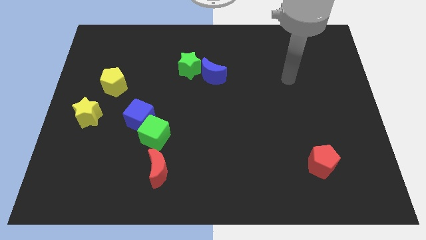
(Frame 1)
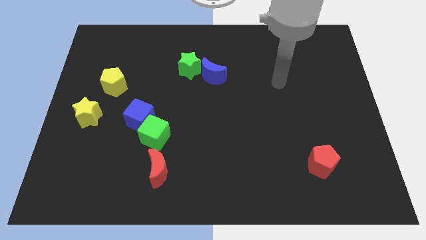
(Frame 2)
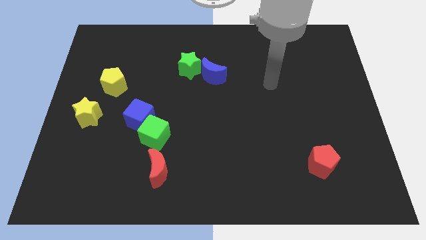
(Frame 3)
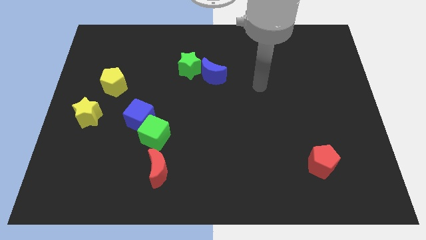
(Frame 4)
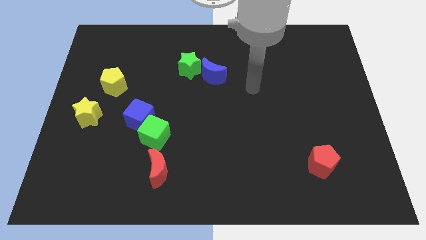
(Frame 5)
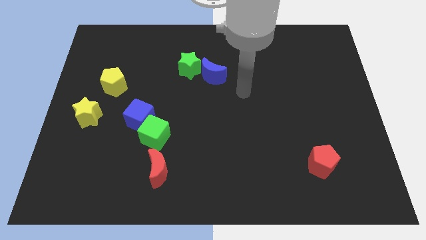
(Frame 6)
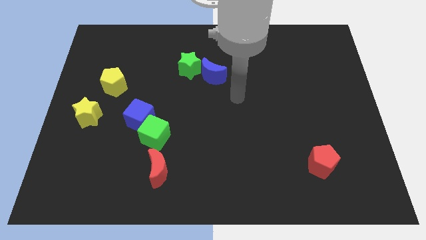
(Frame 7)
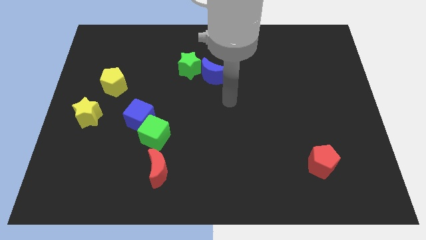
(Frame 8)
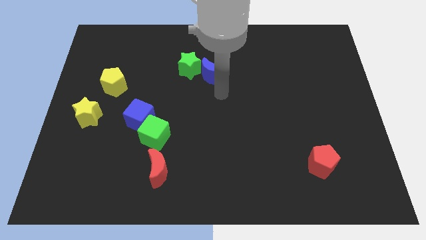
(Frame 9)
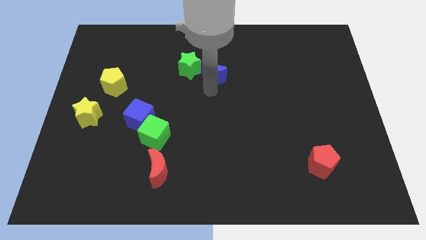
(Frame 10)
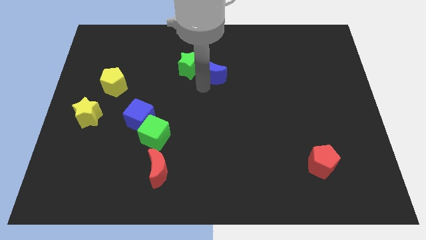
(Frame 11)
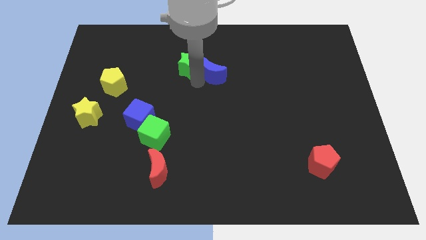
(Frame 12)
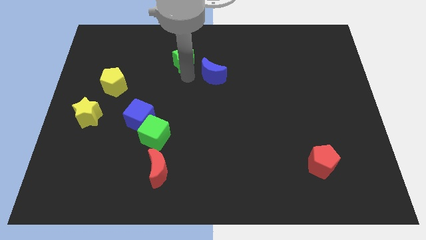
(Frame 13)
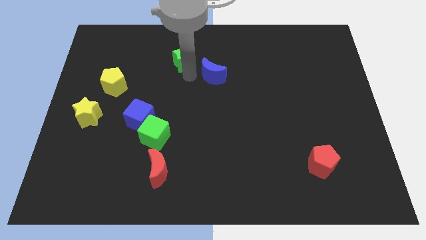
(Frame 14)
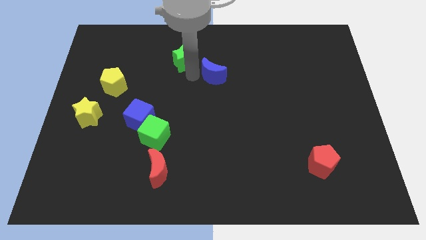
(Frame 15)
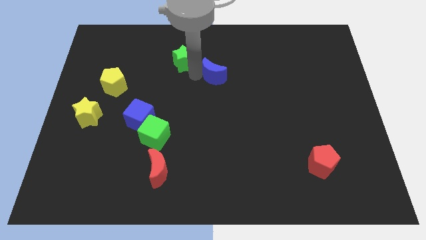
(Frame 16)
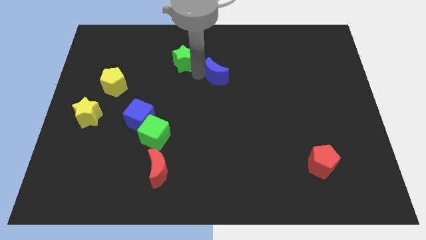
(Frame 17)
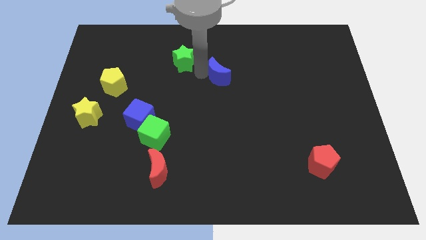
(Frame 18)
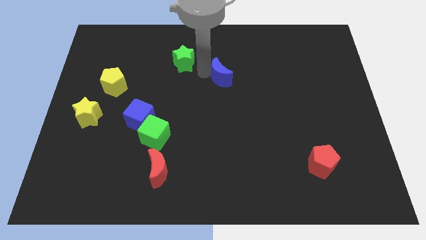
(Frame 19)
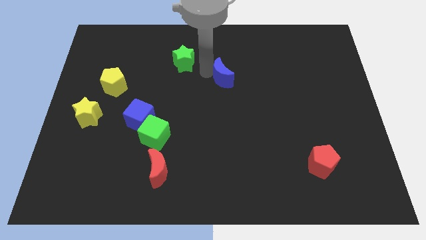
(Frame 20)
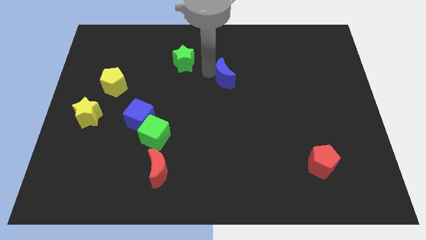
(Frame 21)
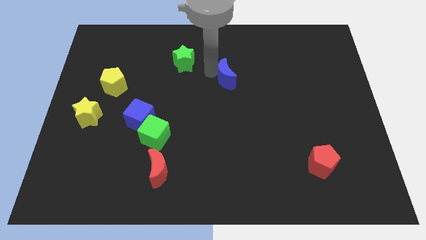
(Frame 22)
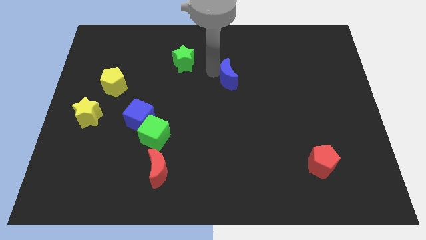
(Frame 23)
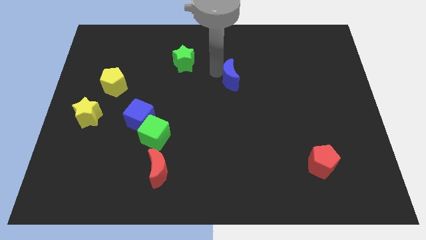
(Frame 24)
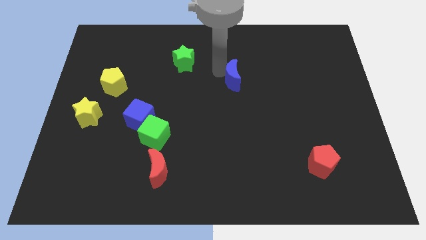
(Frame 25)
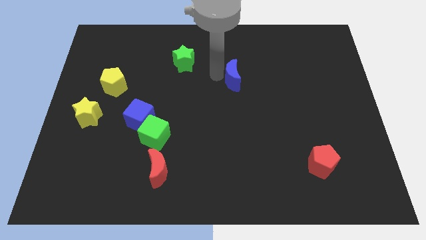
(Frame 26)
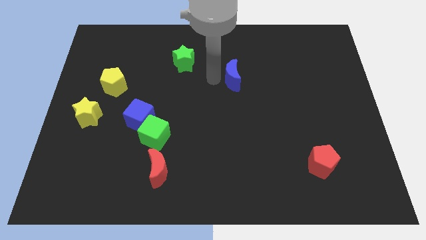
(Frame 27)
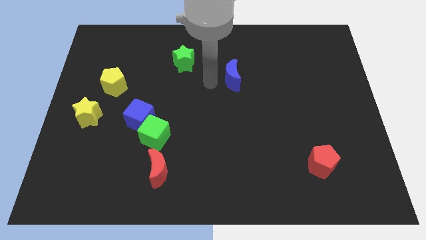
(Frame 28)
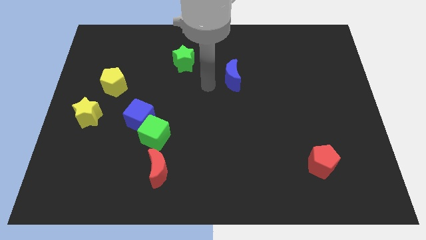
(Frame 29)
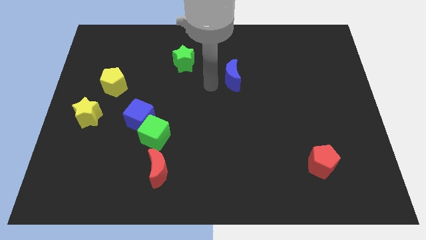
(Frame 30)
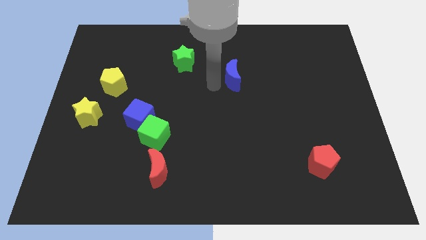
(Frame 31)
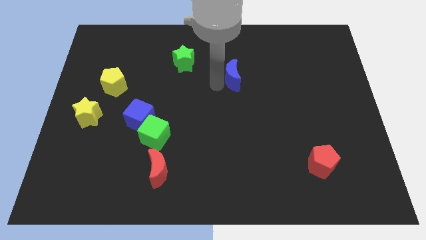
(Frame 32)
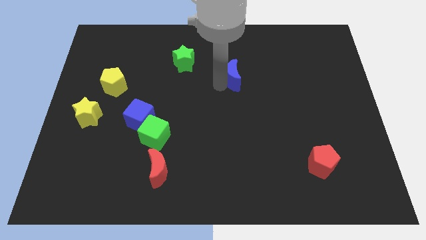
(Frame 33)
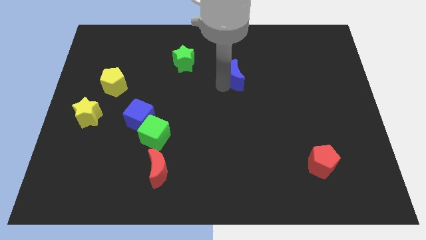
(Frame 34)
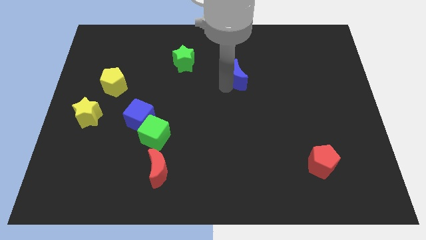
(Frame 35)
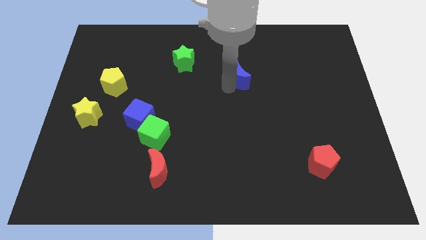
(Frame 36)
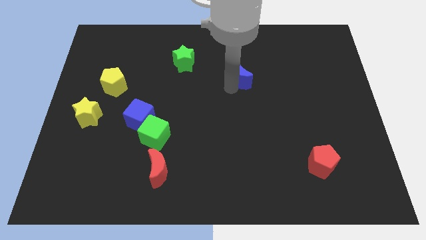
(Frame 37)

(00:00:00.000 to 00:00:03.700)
move the blue moon to the right a bit

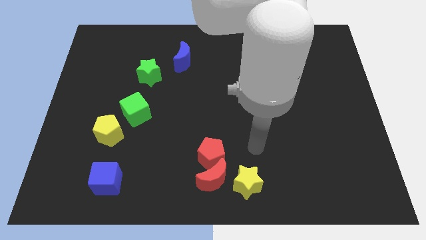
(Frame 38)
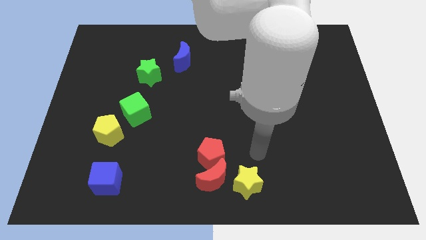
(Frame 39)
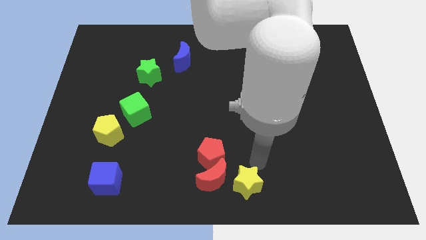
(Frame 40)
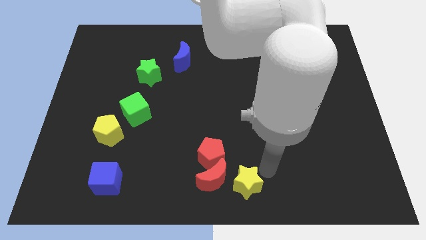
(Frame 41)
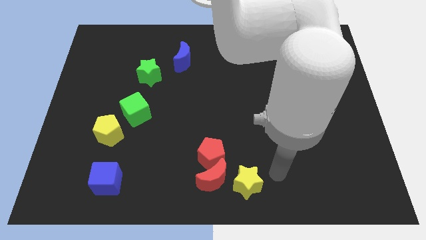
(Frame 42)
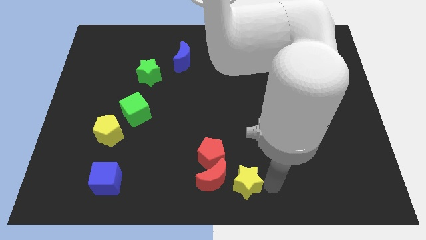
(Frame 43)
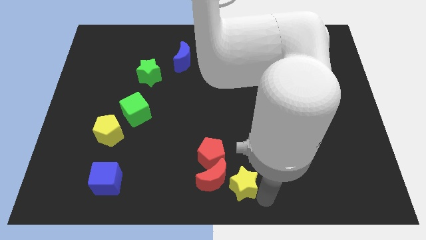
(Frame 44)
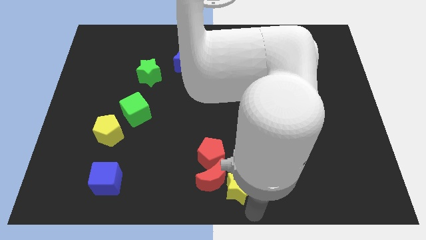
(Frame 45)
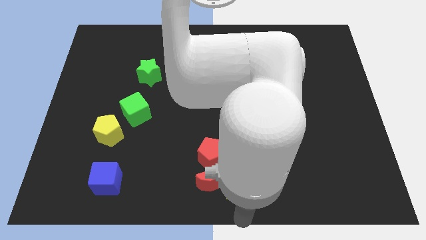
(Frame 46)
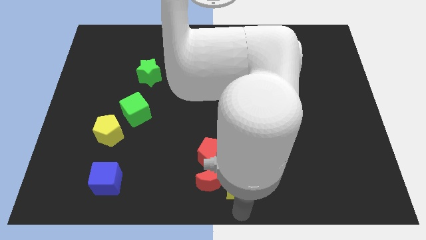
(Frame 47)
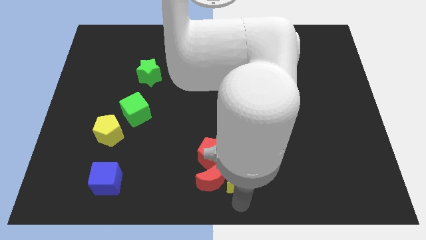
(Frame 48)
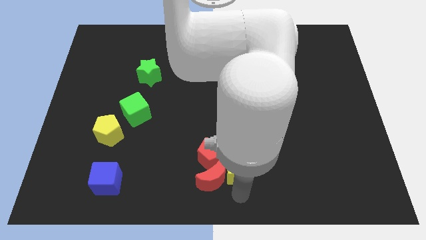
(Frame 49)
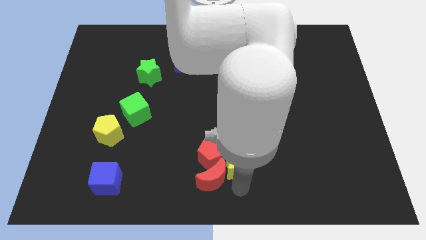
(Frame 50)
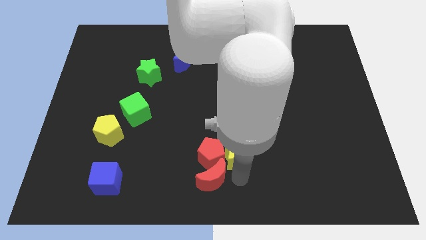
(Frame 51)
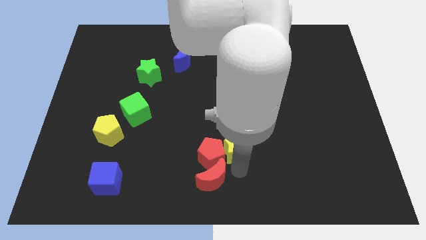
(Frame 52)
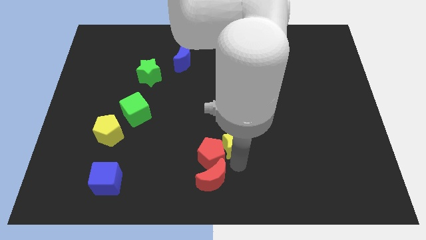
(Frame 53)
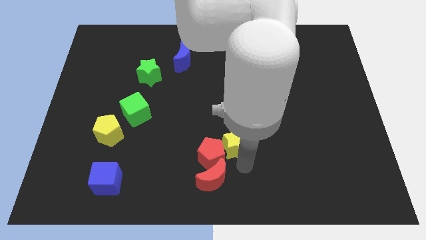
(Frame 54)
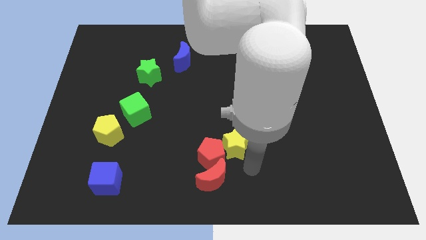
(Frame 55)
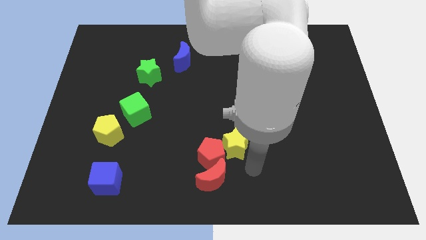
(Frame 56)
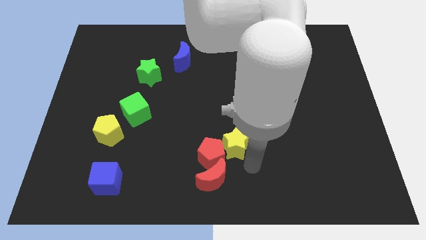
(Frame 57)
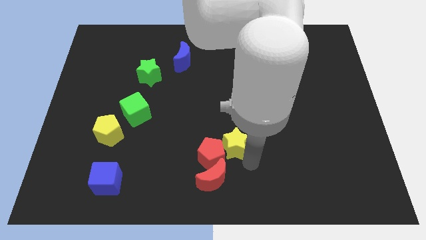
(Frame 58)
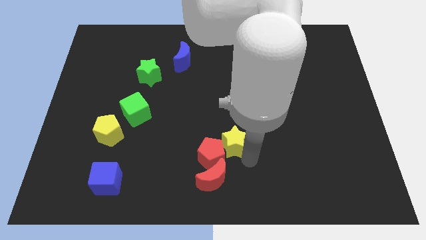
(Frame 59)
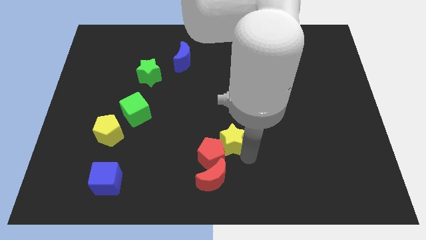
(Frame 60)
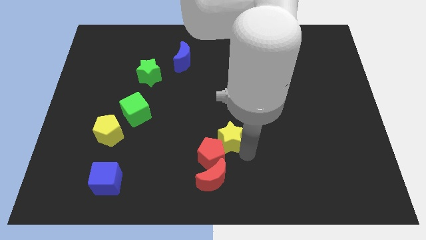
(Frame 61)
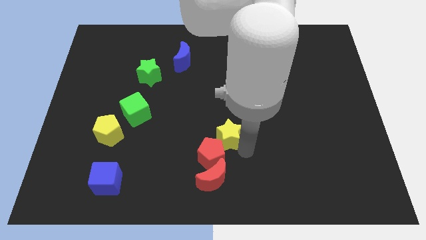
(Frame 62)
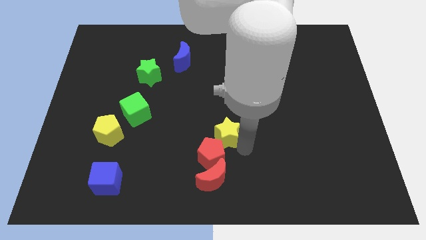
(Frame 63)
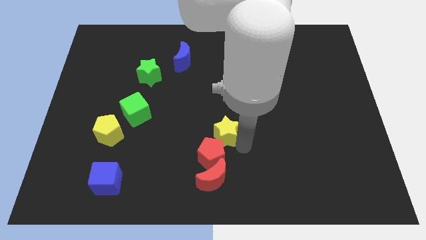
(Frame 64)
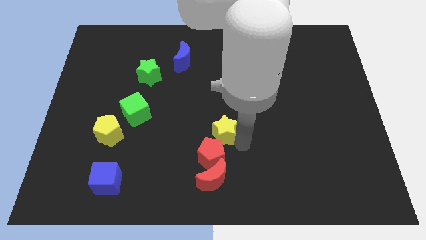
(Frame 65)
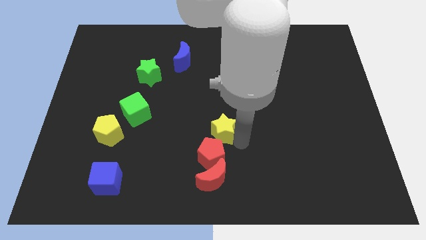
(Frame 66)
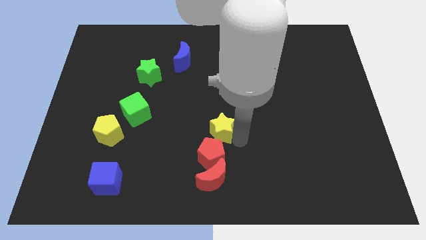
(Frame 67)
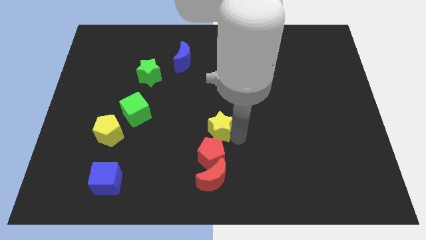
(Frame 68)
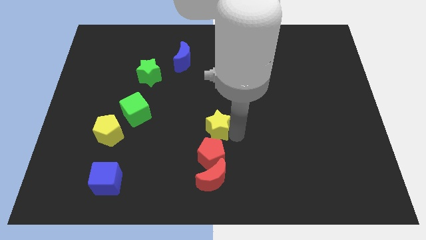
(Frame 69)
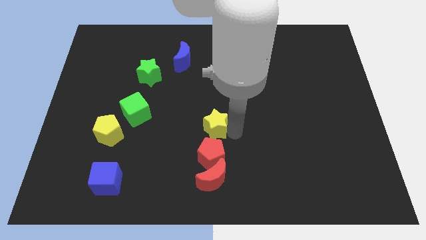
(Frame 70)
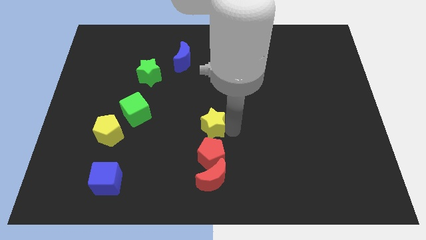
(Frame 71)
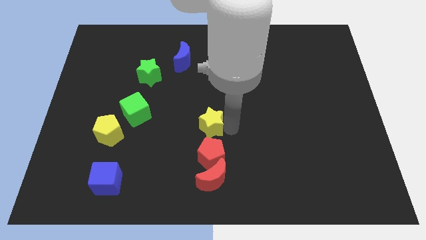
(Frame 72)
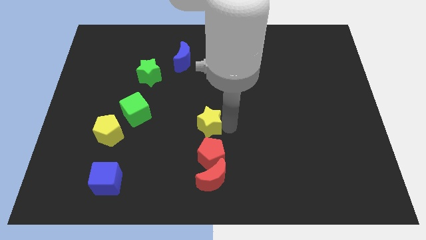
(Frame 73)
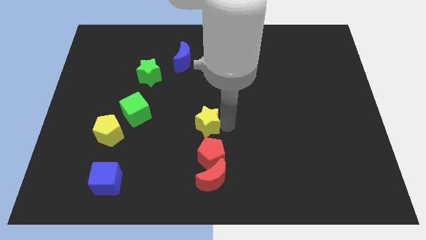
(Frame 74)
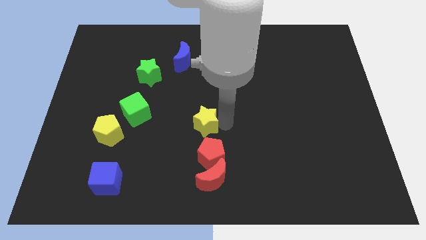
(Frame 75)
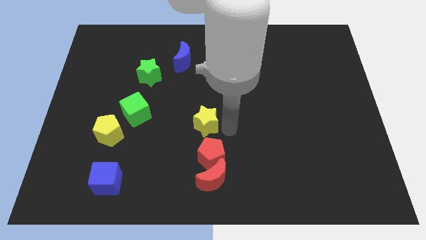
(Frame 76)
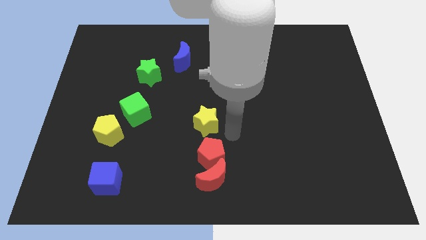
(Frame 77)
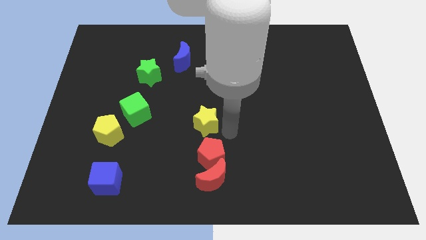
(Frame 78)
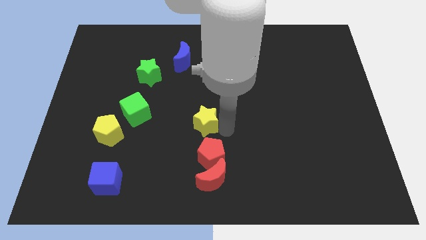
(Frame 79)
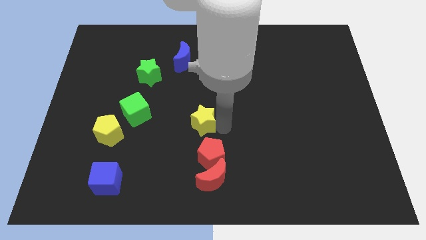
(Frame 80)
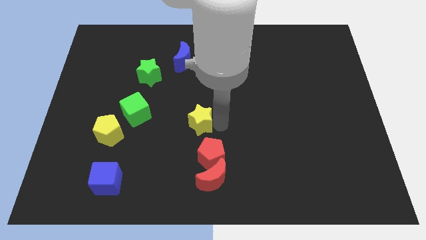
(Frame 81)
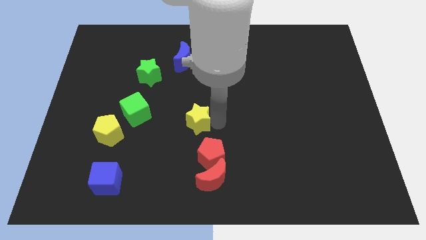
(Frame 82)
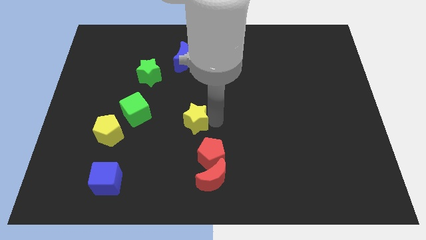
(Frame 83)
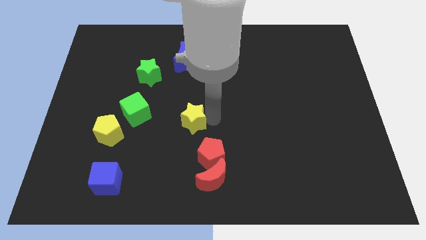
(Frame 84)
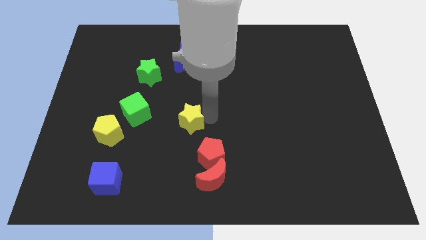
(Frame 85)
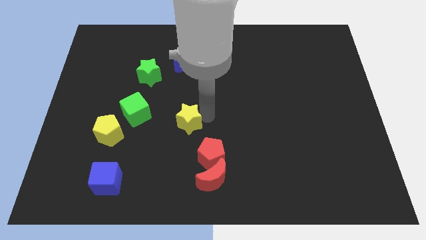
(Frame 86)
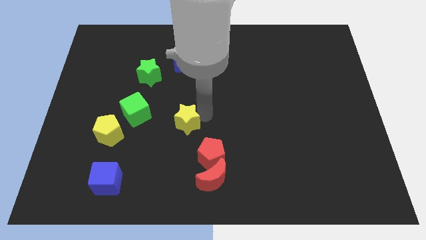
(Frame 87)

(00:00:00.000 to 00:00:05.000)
slide the yellow star up and to the left diagonally
